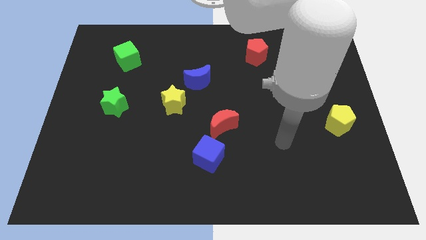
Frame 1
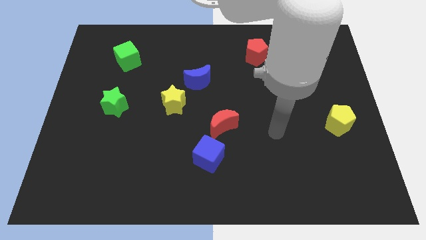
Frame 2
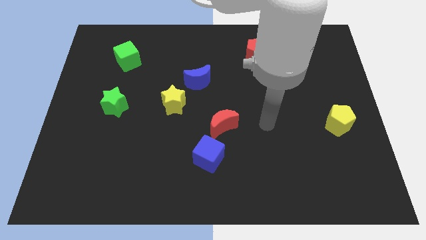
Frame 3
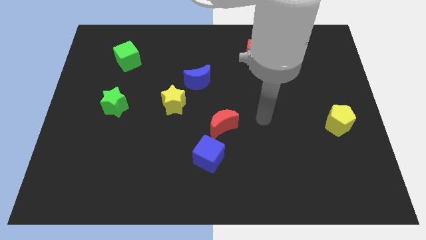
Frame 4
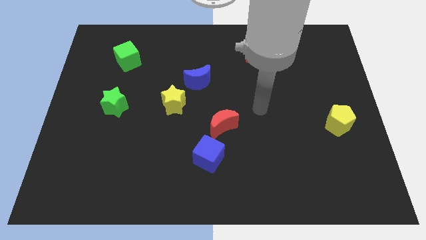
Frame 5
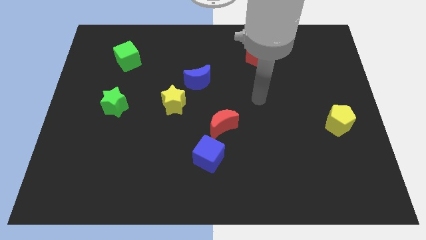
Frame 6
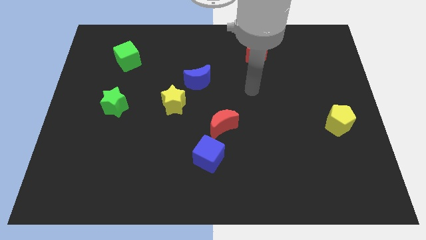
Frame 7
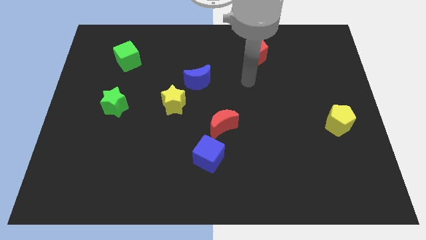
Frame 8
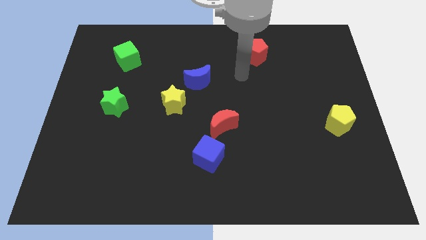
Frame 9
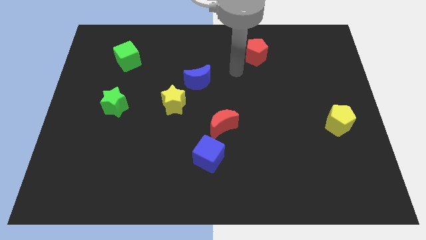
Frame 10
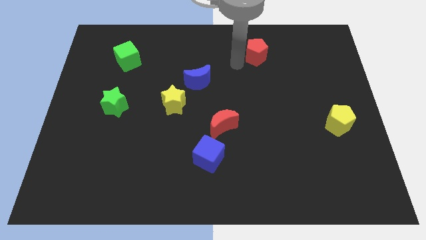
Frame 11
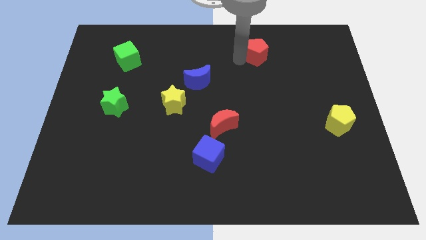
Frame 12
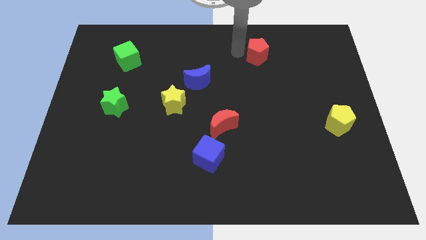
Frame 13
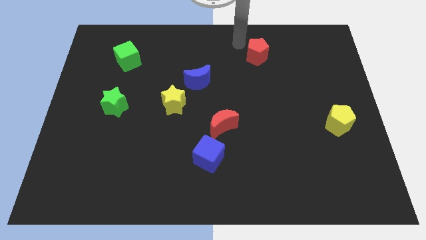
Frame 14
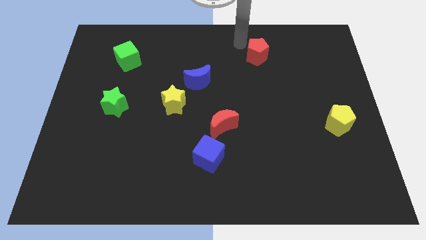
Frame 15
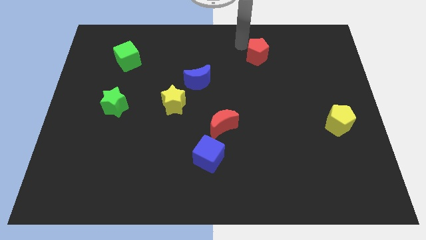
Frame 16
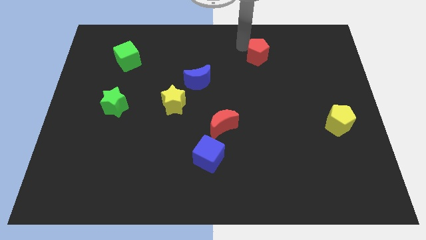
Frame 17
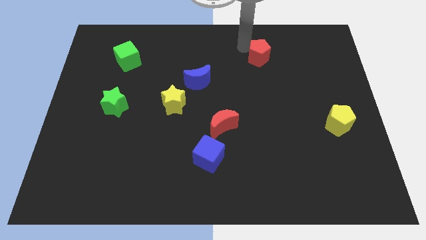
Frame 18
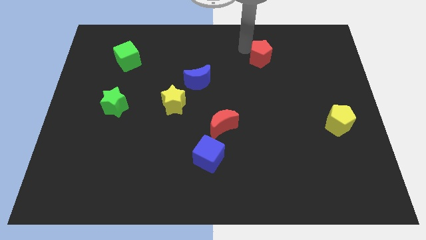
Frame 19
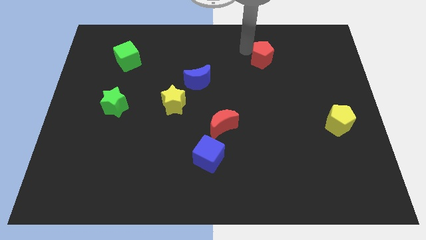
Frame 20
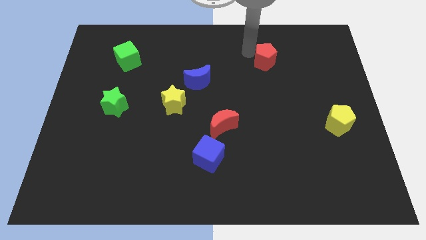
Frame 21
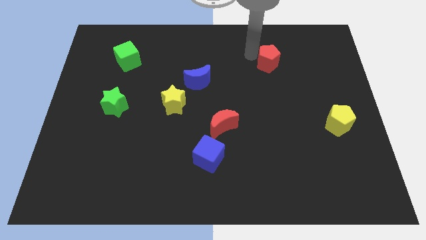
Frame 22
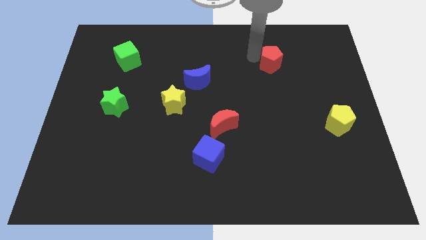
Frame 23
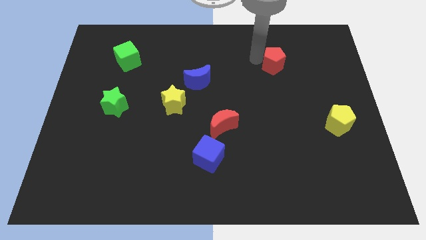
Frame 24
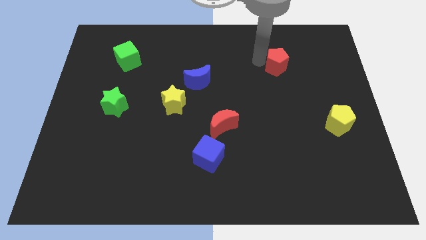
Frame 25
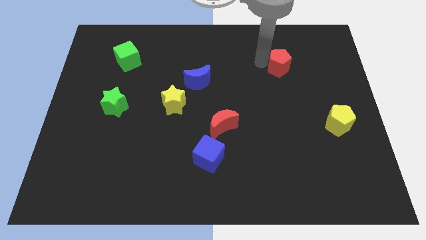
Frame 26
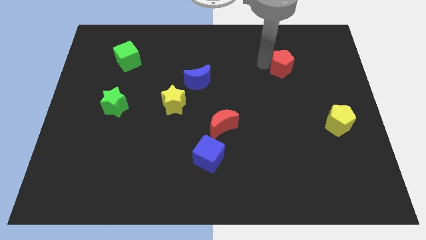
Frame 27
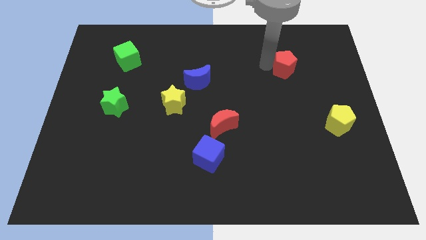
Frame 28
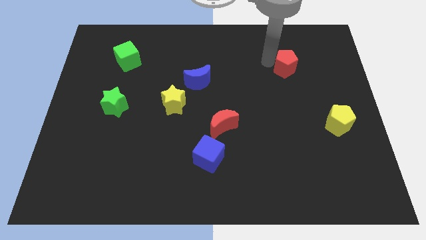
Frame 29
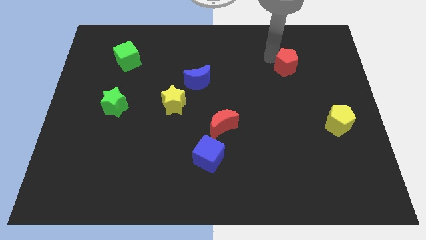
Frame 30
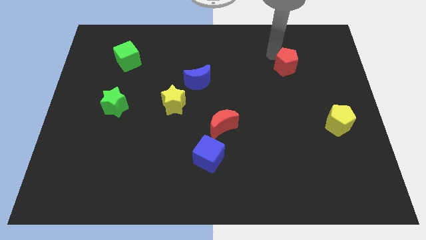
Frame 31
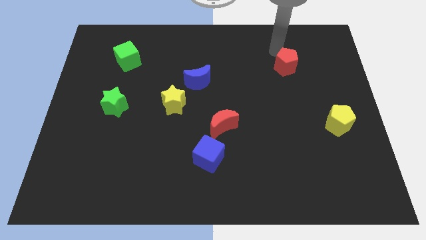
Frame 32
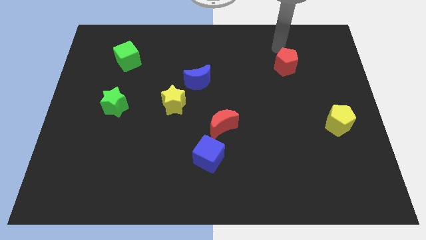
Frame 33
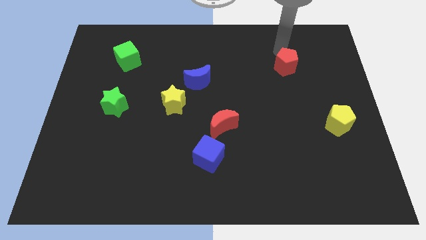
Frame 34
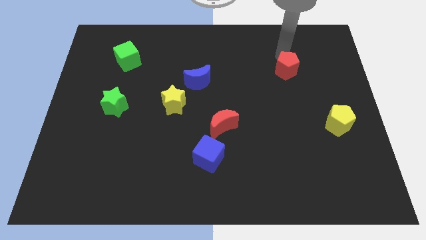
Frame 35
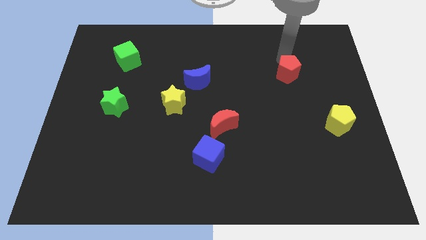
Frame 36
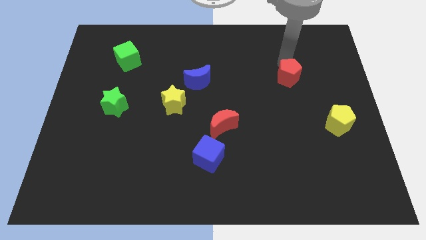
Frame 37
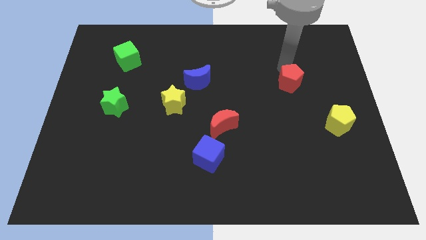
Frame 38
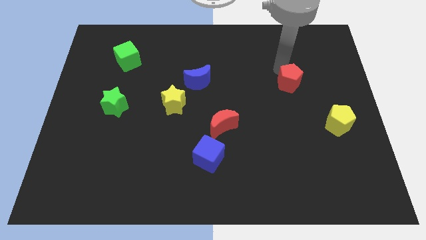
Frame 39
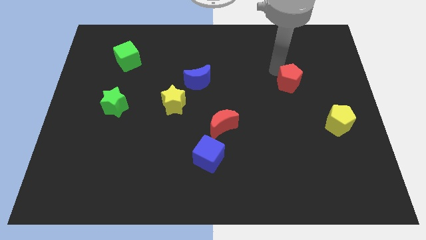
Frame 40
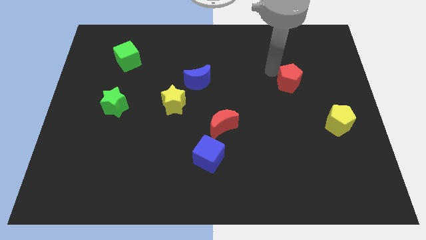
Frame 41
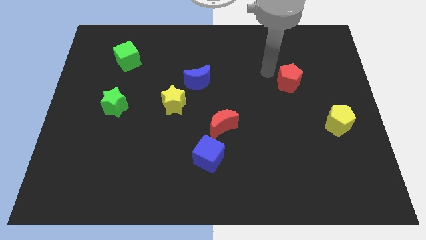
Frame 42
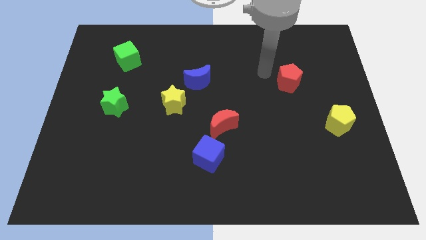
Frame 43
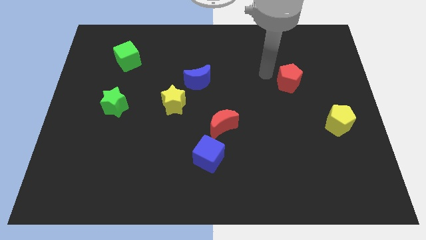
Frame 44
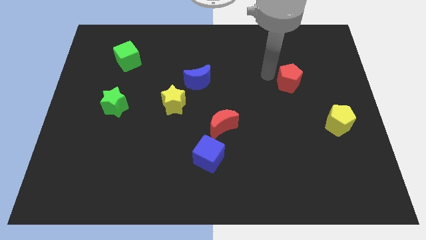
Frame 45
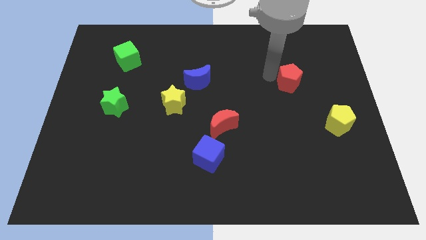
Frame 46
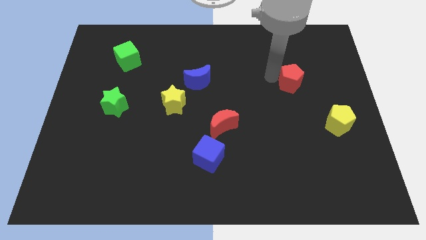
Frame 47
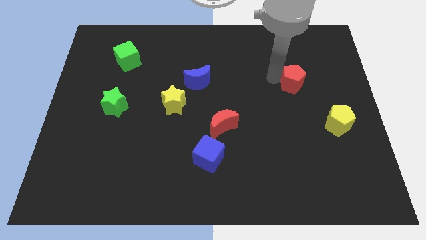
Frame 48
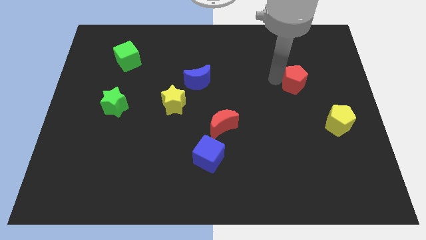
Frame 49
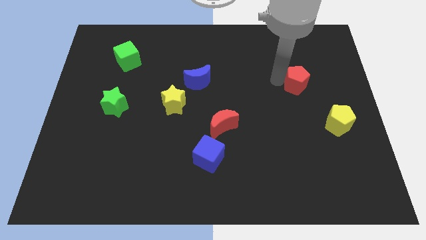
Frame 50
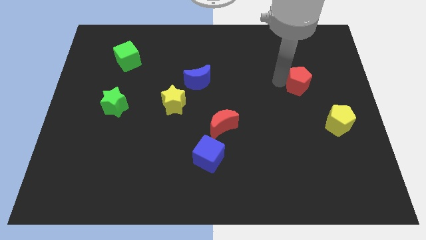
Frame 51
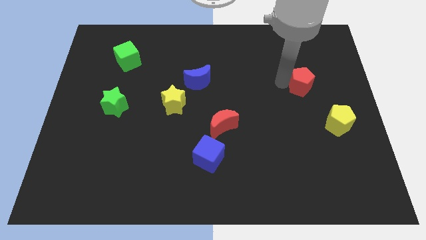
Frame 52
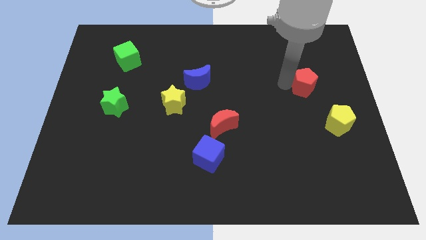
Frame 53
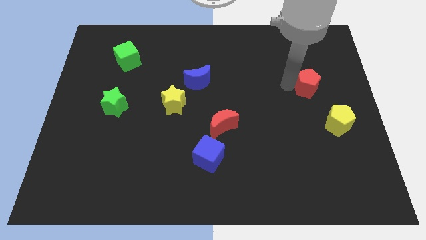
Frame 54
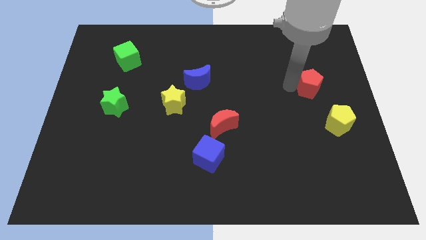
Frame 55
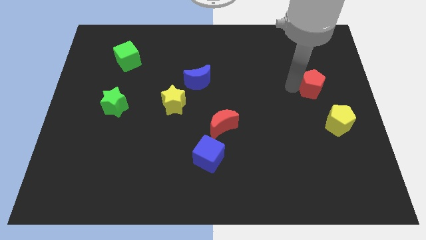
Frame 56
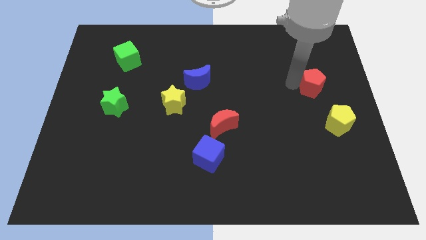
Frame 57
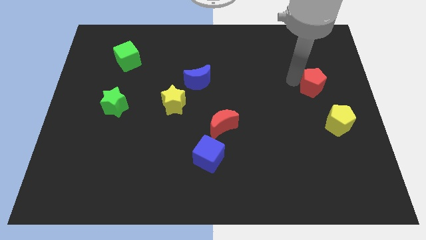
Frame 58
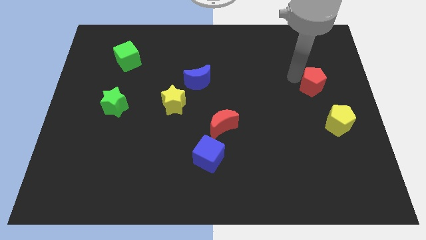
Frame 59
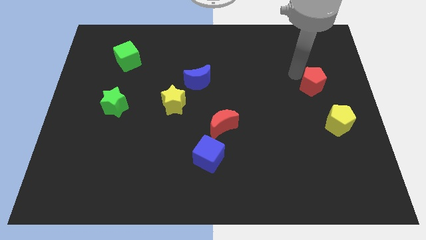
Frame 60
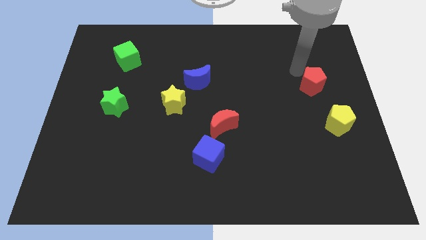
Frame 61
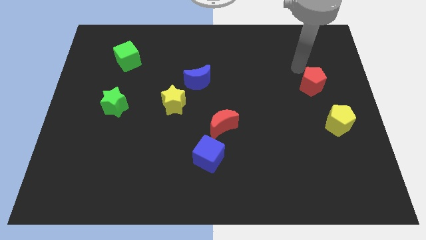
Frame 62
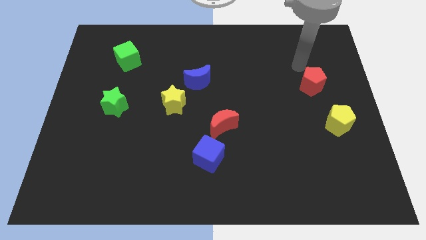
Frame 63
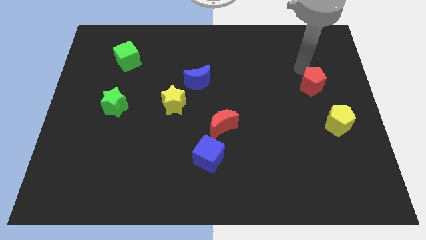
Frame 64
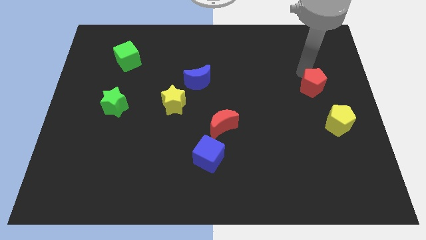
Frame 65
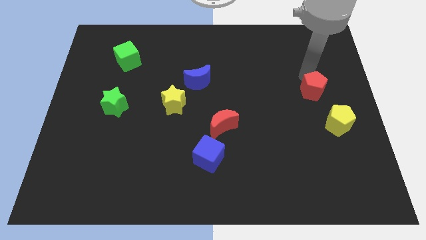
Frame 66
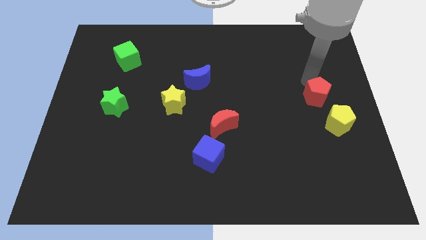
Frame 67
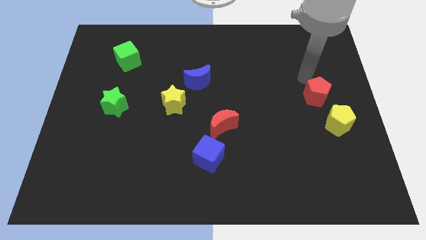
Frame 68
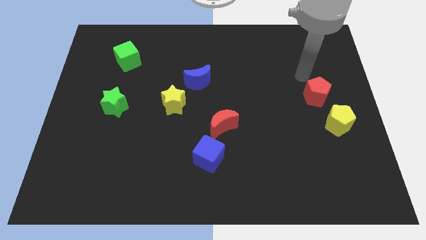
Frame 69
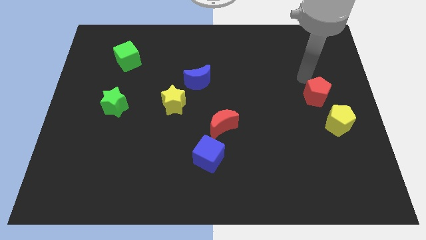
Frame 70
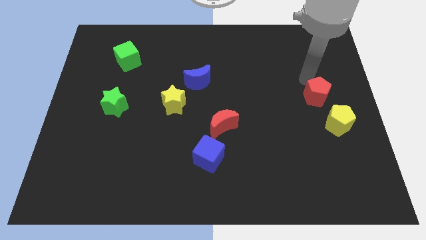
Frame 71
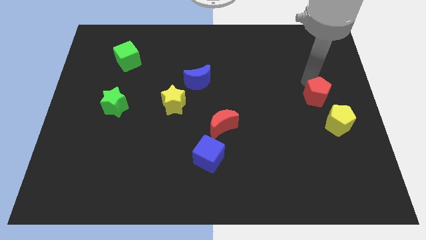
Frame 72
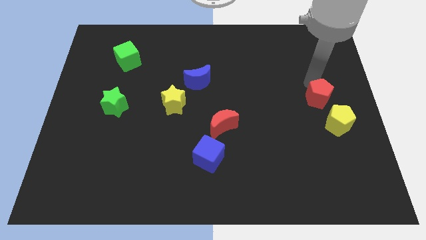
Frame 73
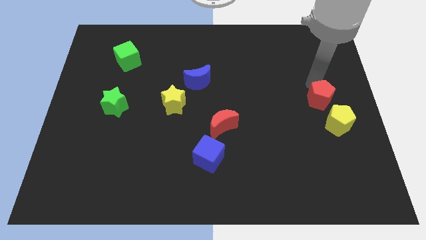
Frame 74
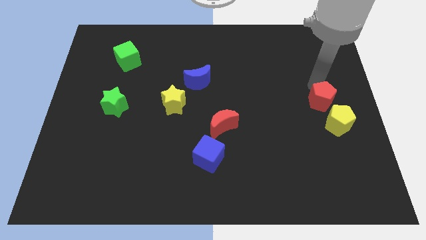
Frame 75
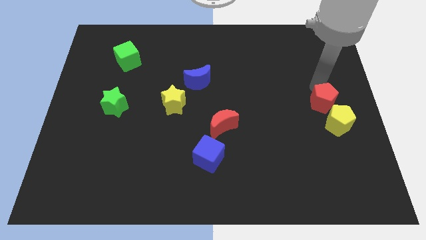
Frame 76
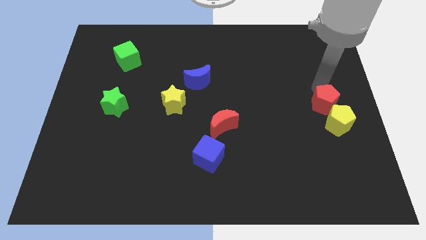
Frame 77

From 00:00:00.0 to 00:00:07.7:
slide the red pentagon next to the yellow pentagon

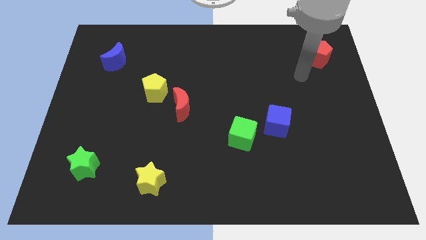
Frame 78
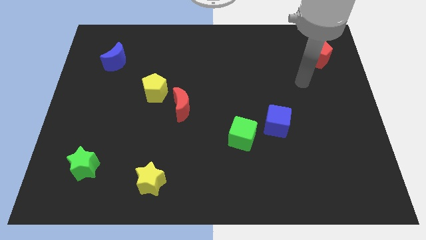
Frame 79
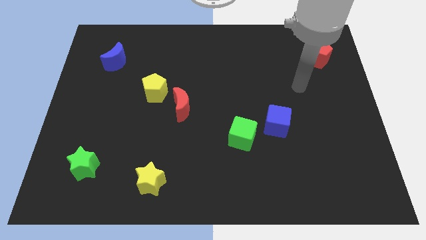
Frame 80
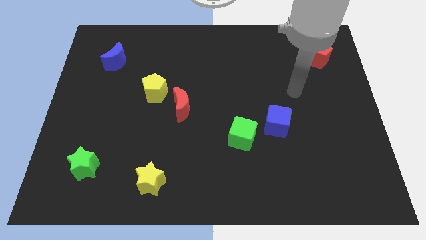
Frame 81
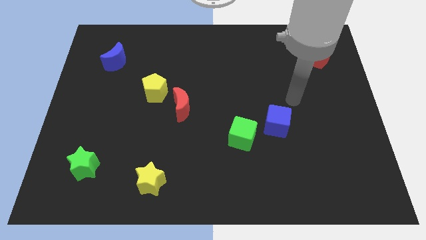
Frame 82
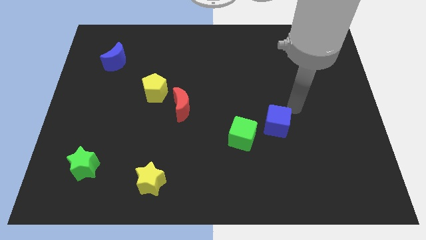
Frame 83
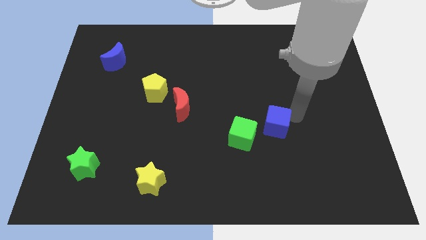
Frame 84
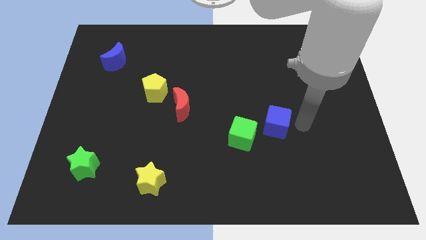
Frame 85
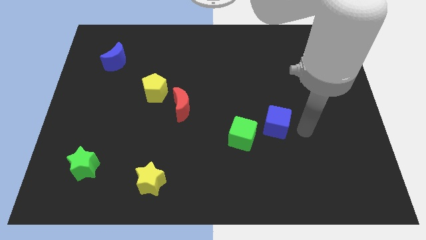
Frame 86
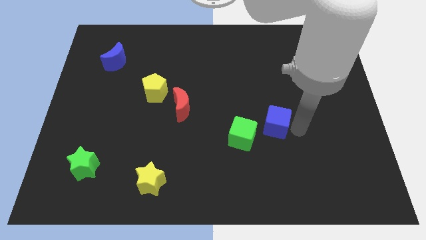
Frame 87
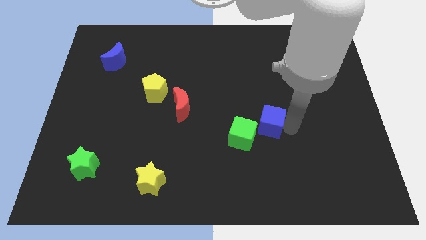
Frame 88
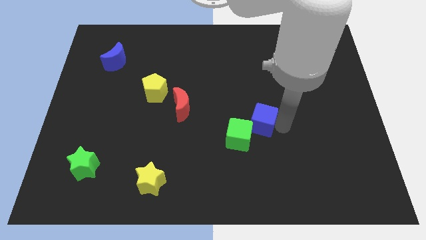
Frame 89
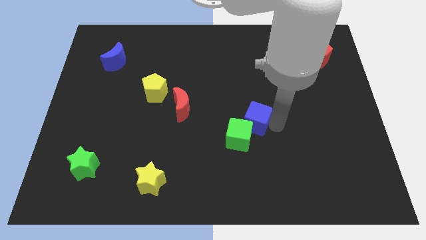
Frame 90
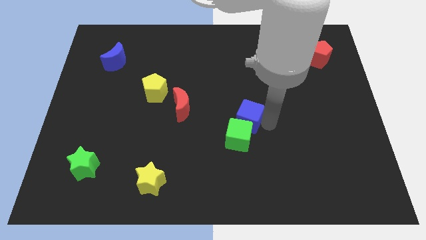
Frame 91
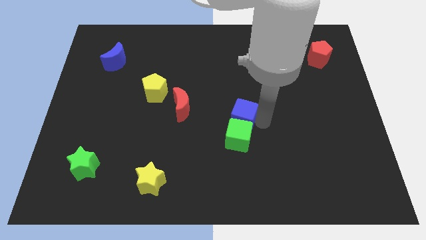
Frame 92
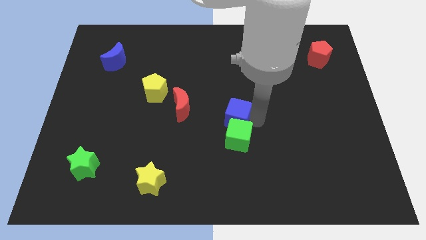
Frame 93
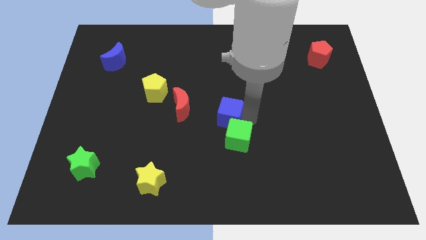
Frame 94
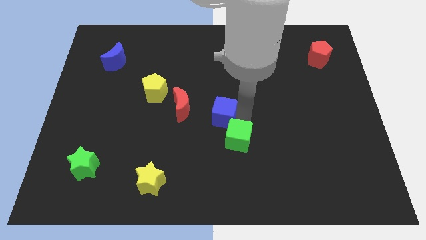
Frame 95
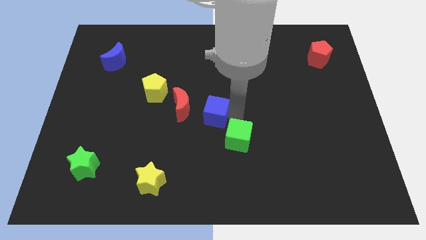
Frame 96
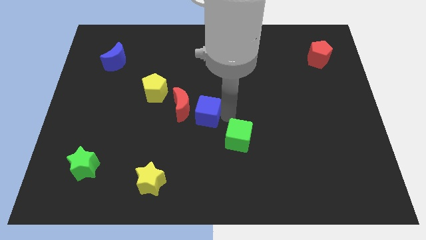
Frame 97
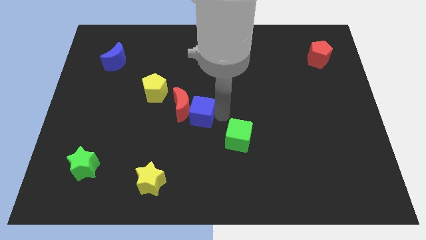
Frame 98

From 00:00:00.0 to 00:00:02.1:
move the blue cube to the red moon
